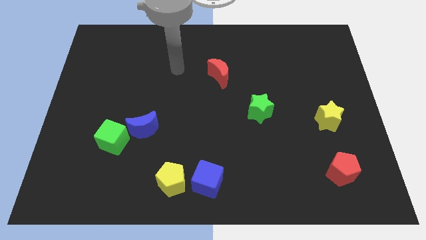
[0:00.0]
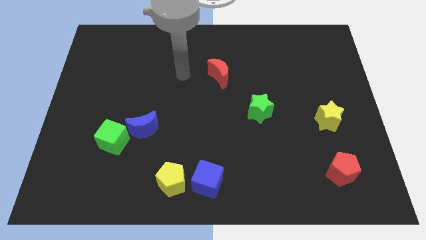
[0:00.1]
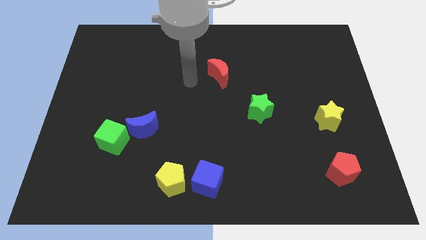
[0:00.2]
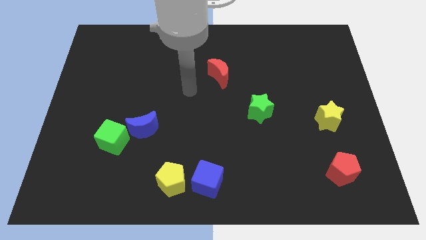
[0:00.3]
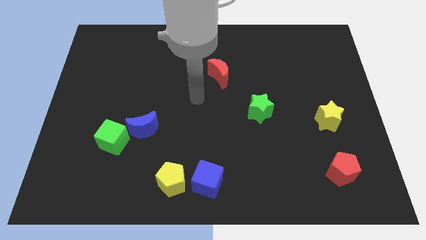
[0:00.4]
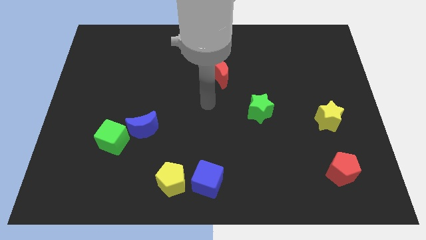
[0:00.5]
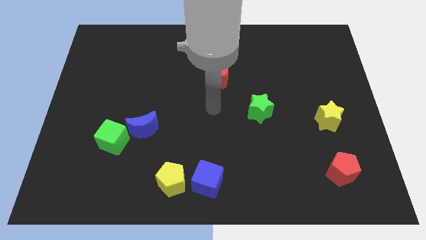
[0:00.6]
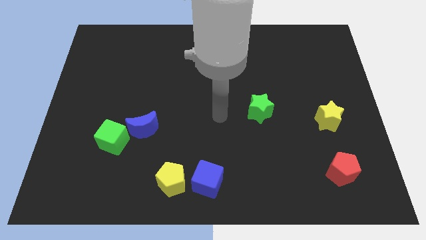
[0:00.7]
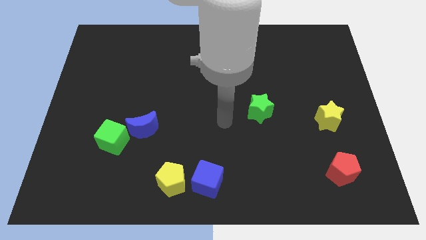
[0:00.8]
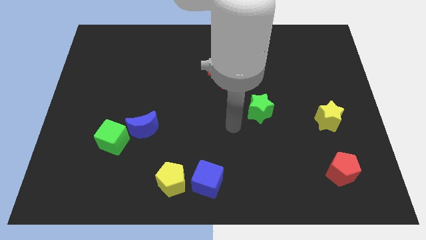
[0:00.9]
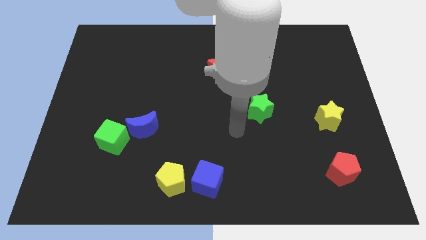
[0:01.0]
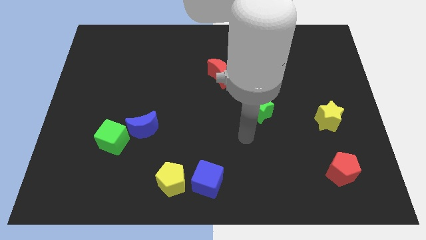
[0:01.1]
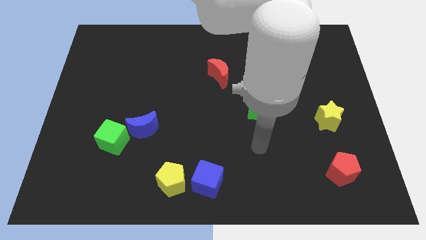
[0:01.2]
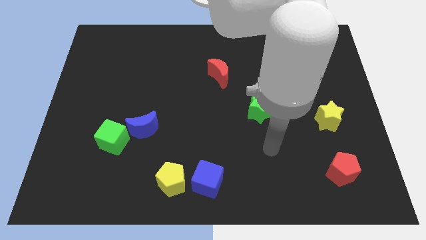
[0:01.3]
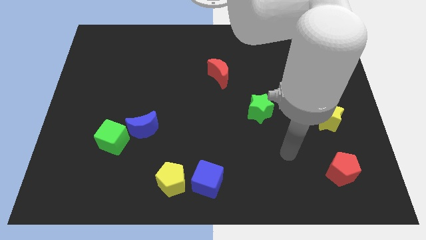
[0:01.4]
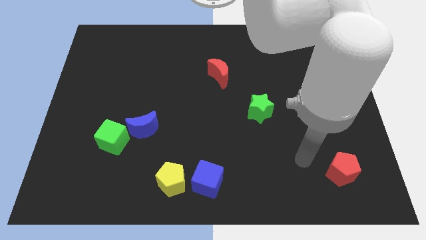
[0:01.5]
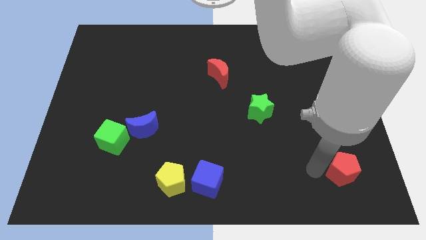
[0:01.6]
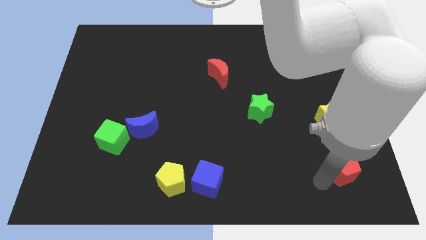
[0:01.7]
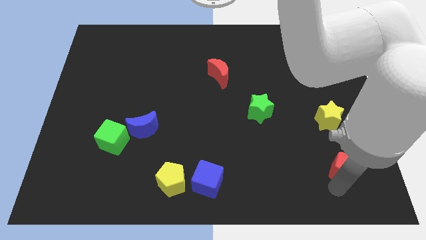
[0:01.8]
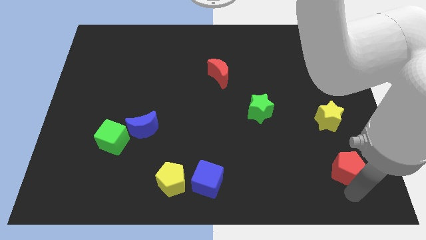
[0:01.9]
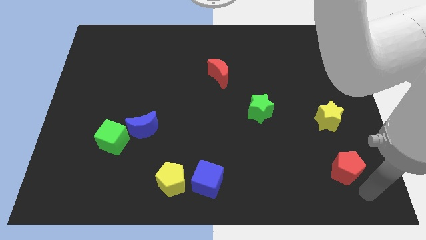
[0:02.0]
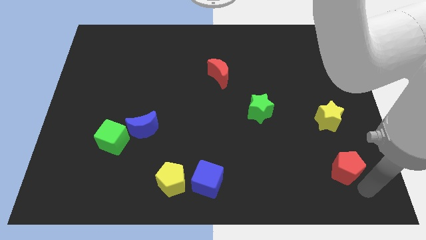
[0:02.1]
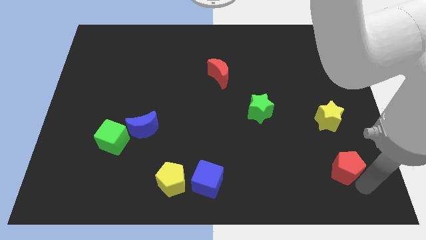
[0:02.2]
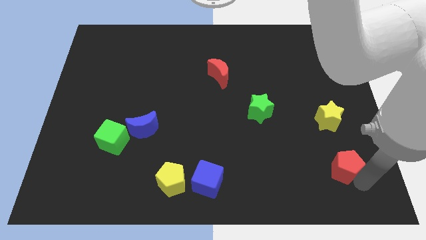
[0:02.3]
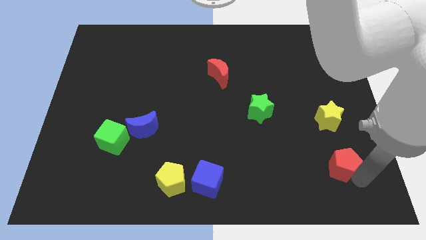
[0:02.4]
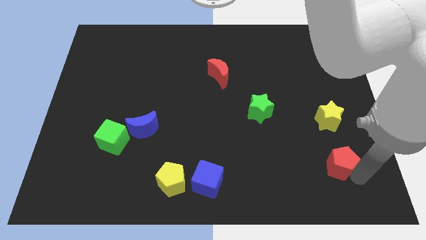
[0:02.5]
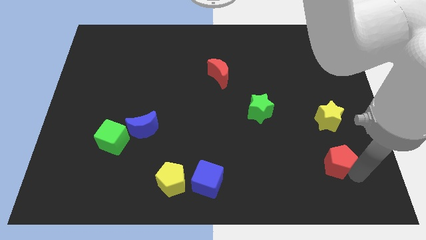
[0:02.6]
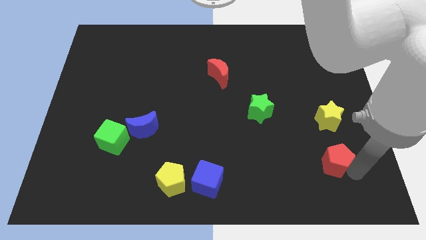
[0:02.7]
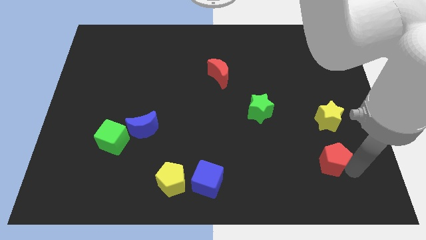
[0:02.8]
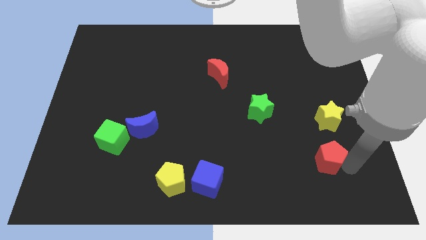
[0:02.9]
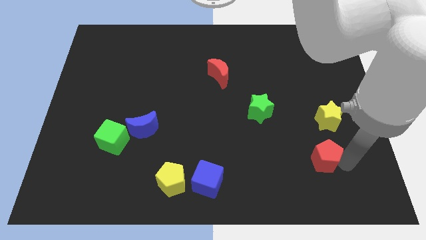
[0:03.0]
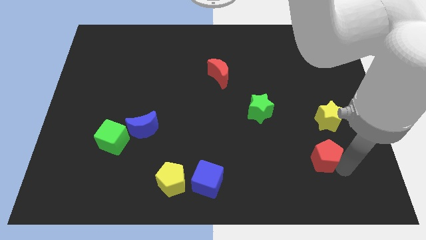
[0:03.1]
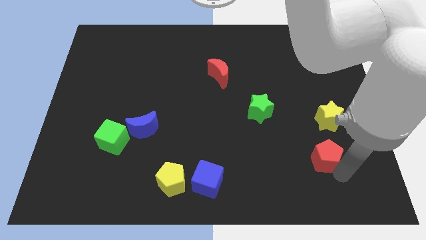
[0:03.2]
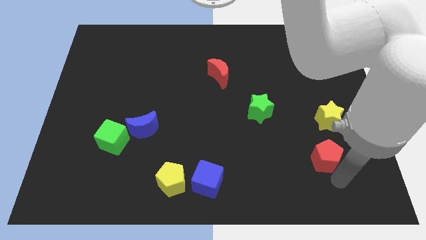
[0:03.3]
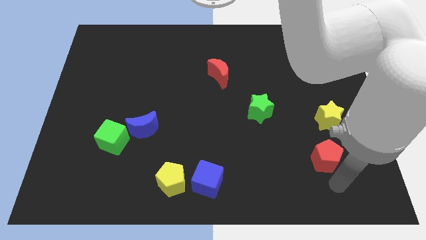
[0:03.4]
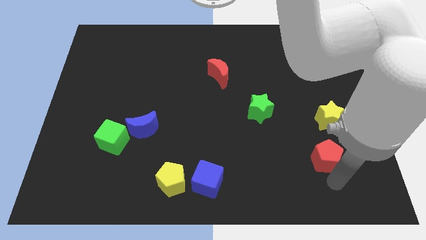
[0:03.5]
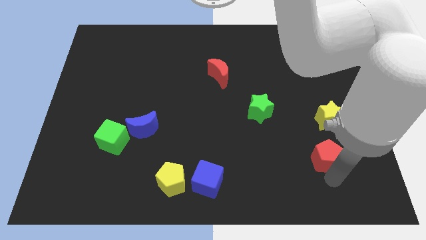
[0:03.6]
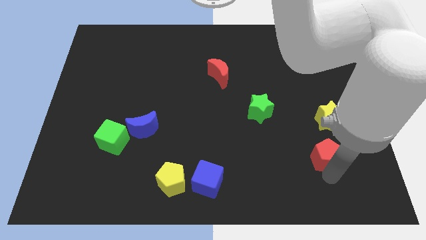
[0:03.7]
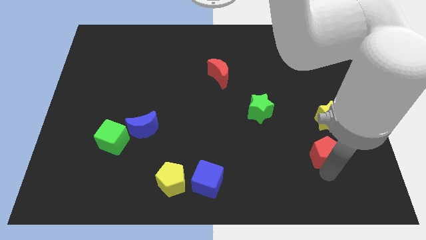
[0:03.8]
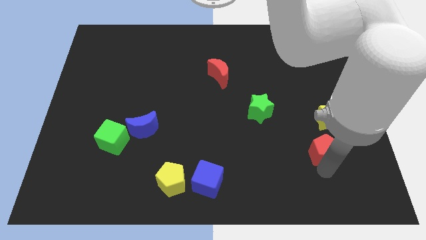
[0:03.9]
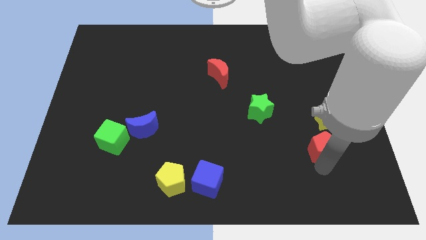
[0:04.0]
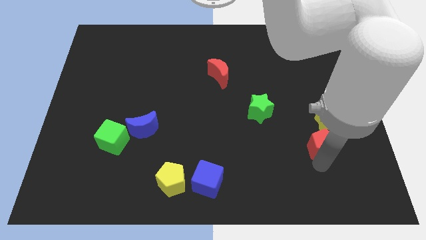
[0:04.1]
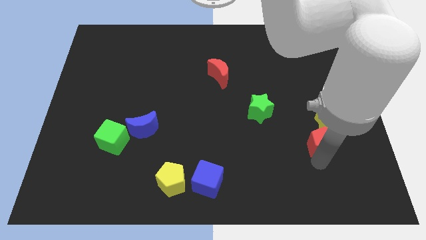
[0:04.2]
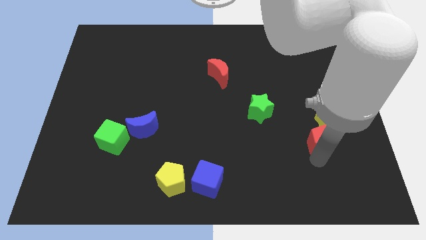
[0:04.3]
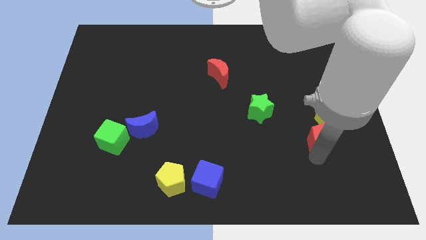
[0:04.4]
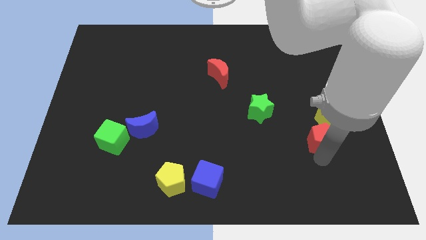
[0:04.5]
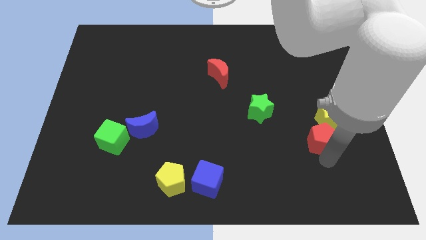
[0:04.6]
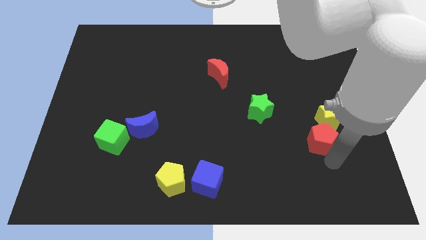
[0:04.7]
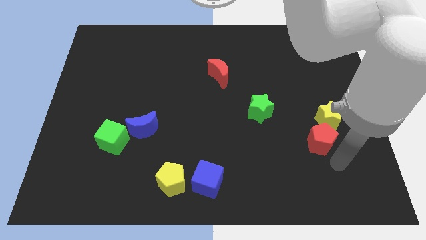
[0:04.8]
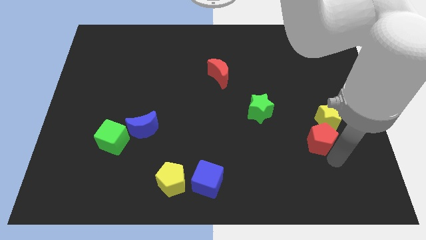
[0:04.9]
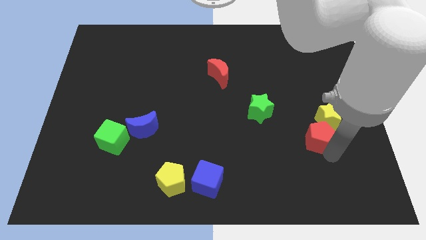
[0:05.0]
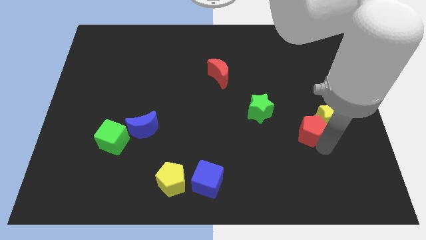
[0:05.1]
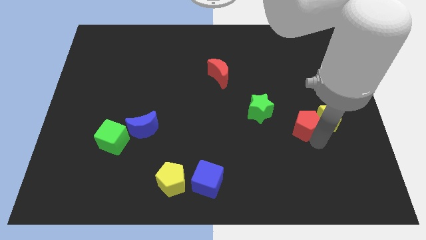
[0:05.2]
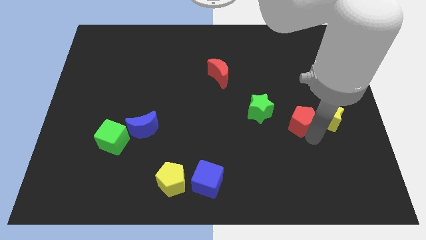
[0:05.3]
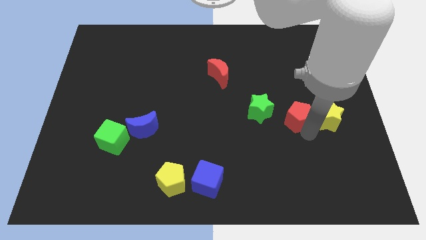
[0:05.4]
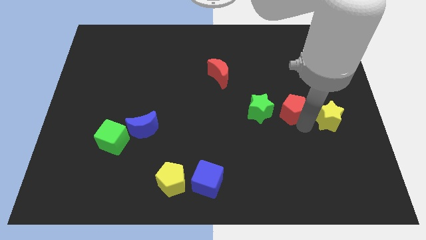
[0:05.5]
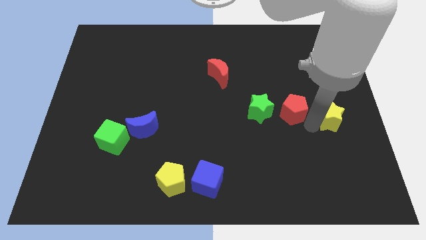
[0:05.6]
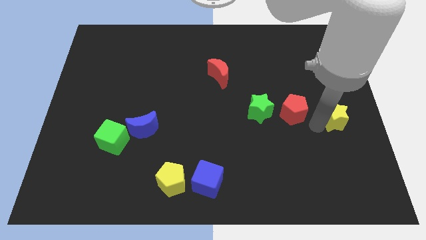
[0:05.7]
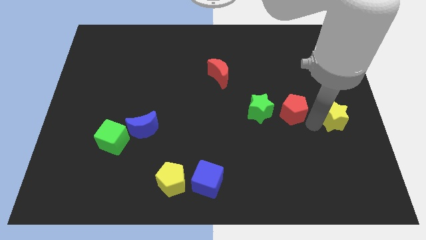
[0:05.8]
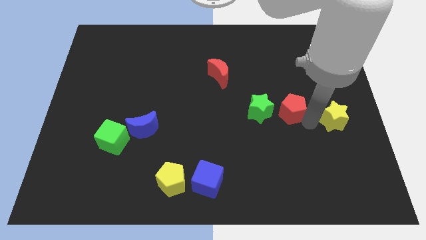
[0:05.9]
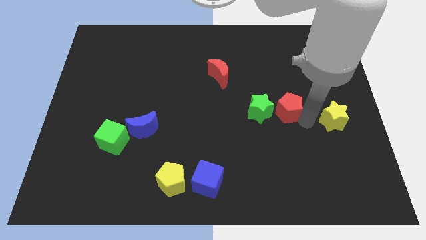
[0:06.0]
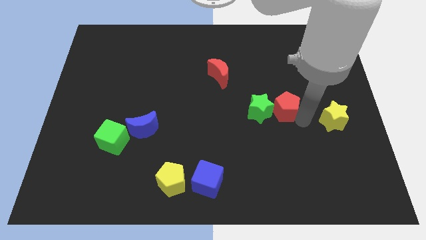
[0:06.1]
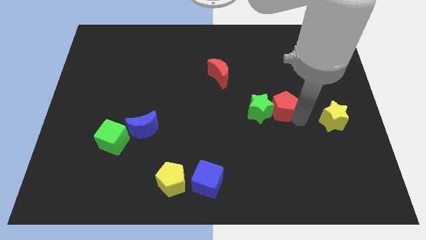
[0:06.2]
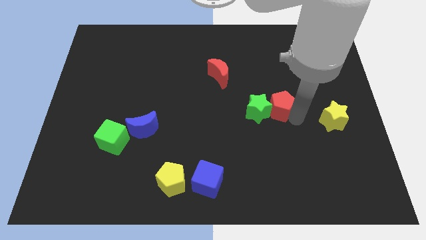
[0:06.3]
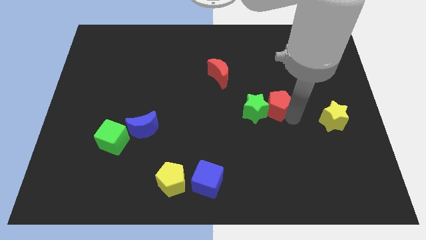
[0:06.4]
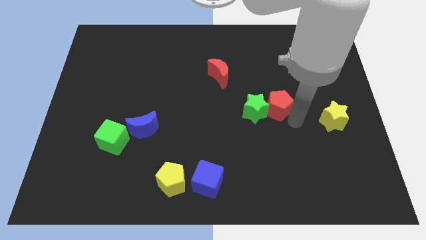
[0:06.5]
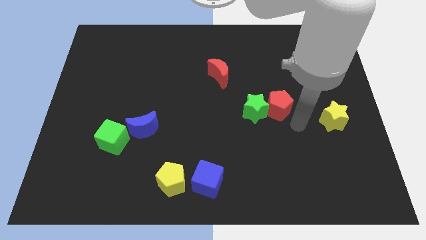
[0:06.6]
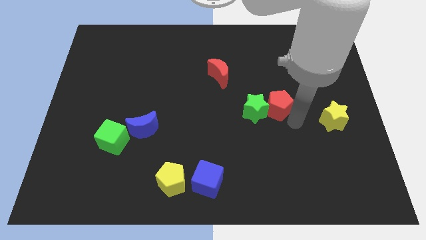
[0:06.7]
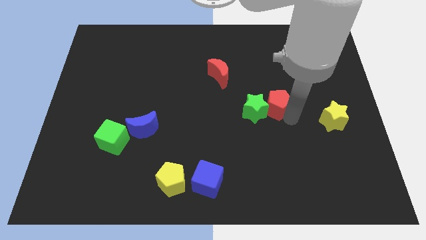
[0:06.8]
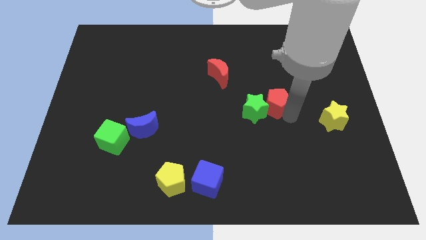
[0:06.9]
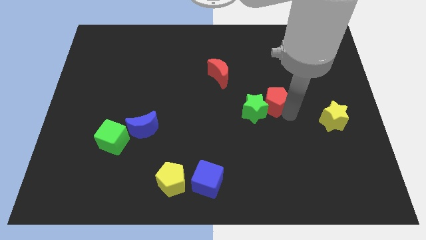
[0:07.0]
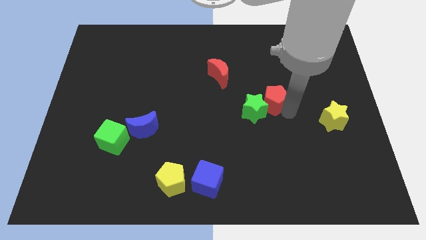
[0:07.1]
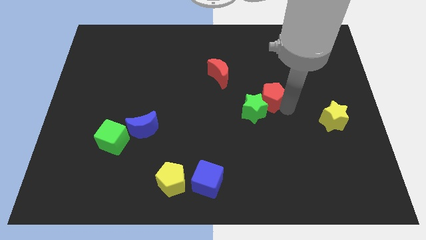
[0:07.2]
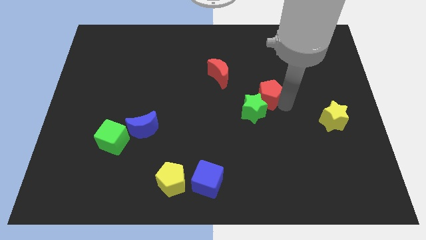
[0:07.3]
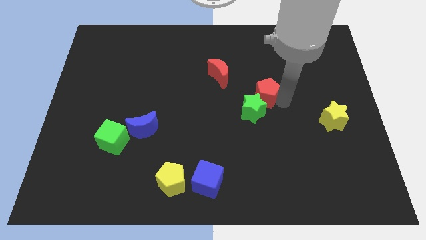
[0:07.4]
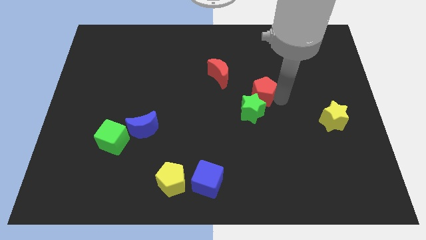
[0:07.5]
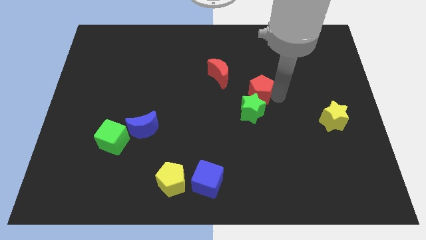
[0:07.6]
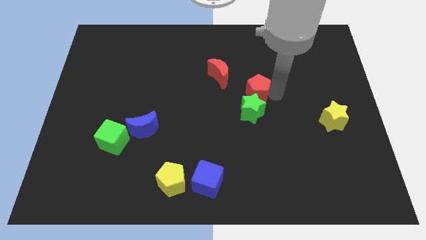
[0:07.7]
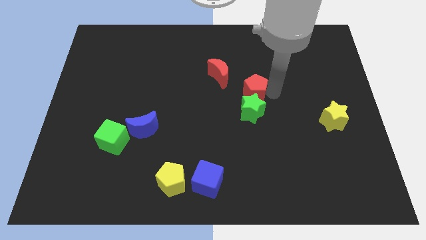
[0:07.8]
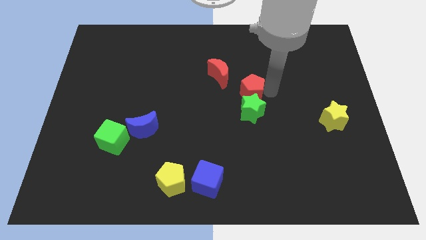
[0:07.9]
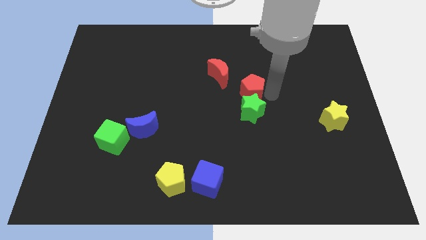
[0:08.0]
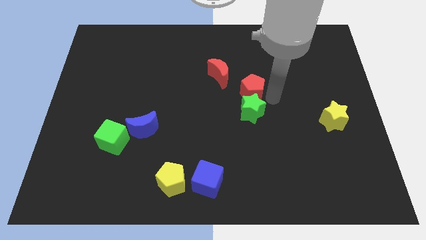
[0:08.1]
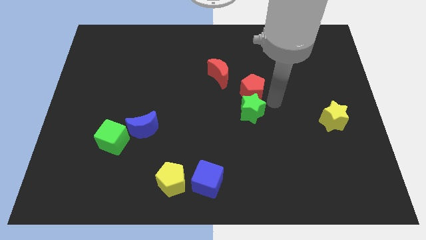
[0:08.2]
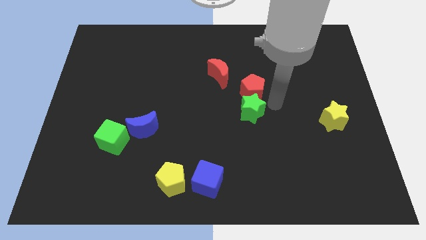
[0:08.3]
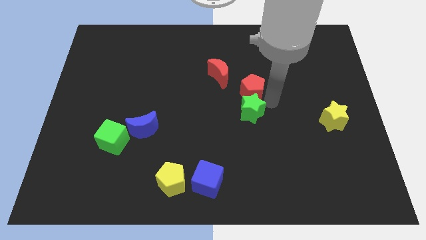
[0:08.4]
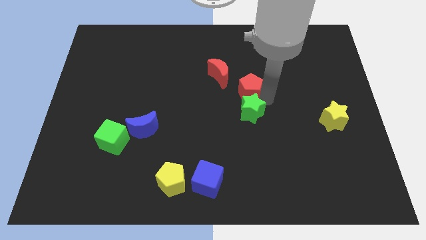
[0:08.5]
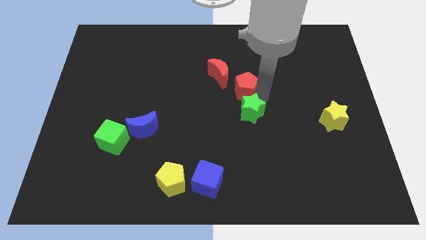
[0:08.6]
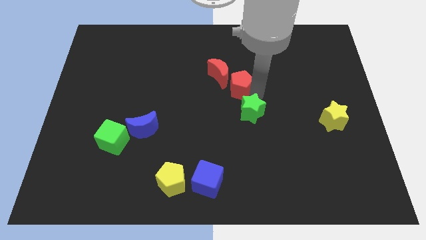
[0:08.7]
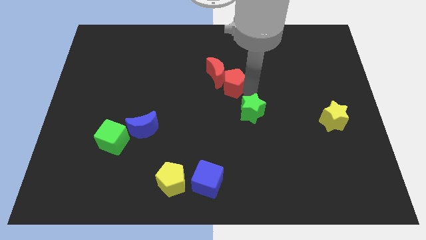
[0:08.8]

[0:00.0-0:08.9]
slide the red pentagon towards the red moon
